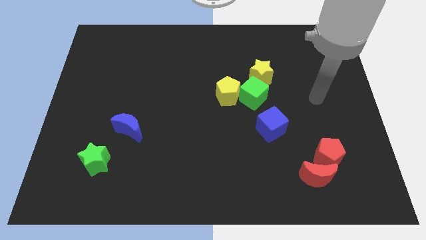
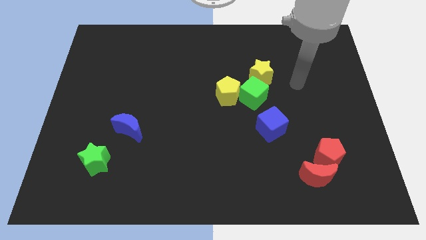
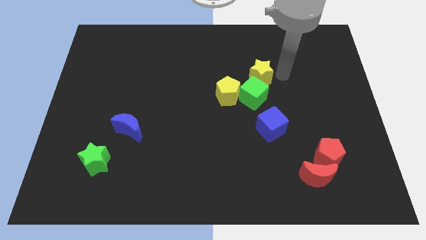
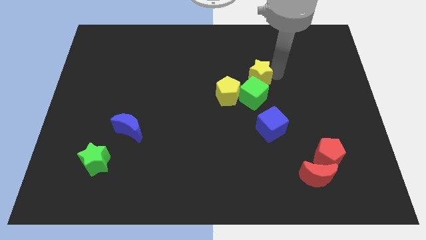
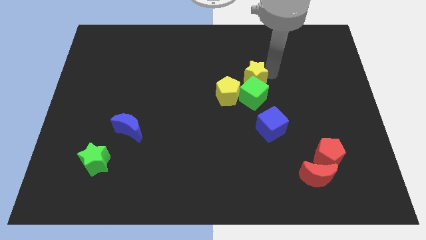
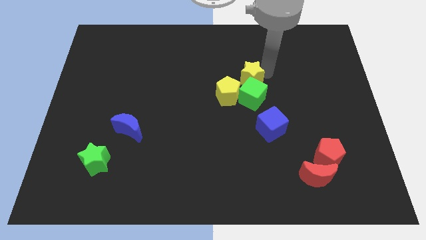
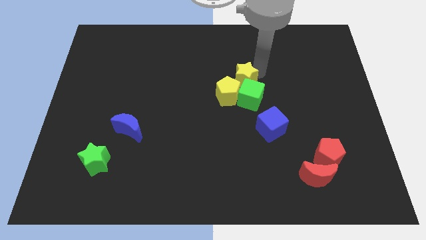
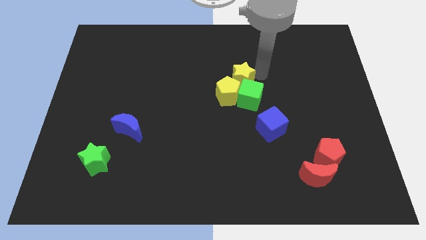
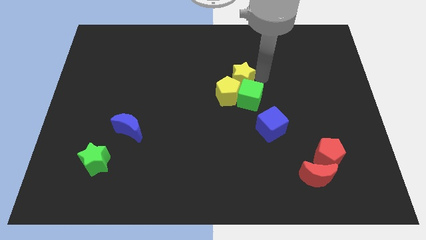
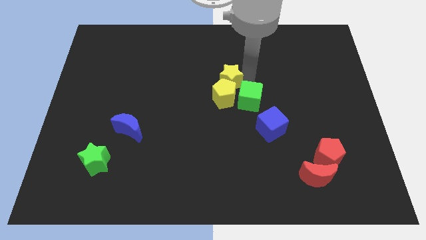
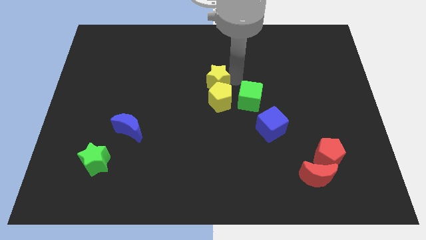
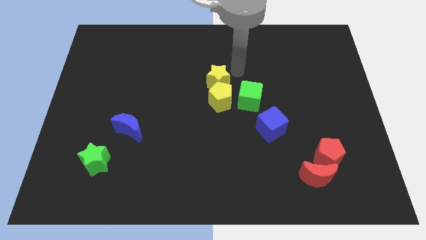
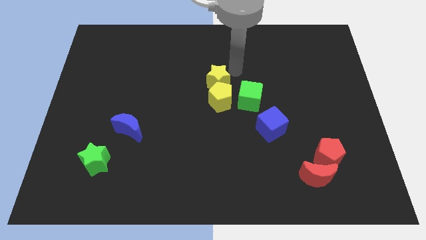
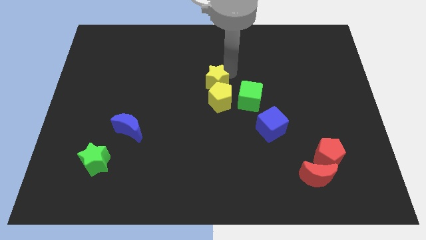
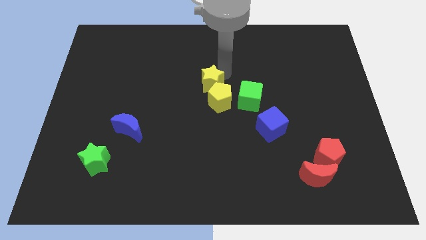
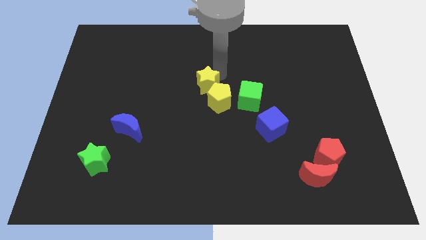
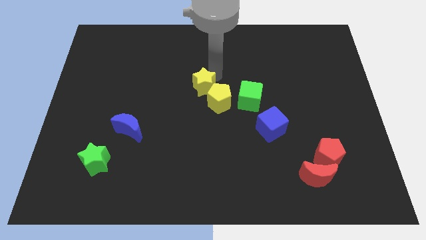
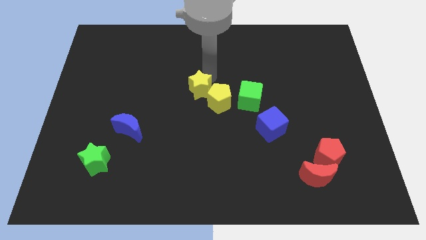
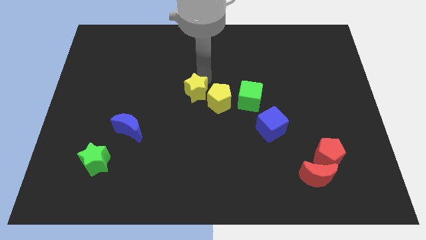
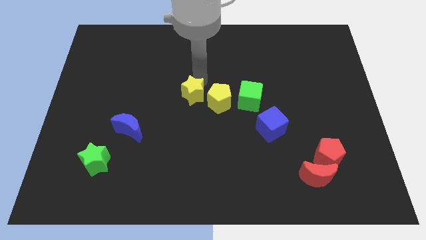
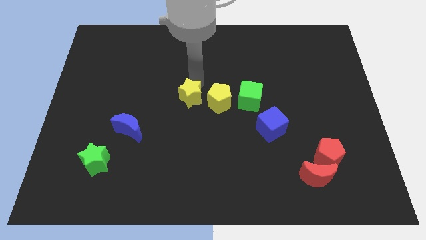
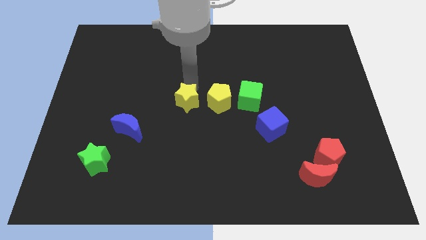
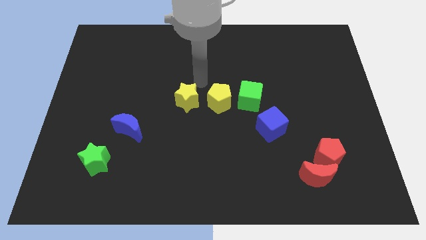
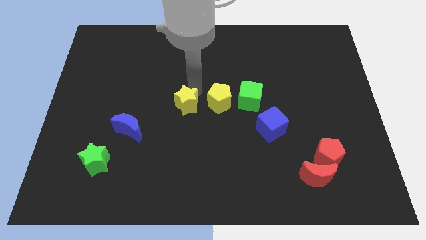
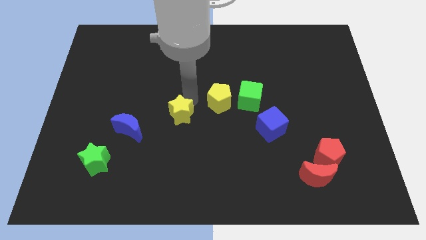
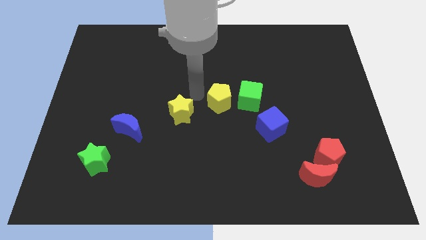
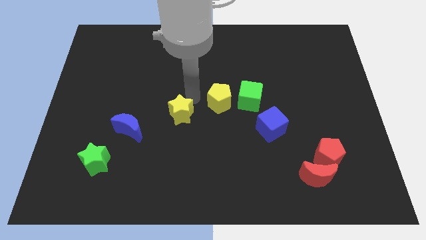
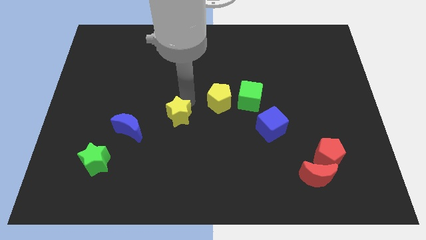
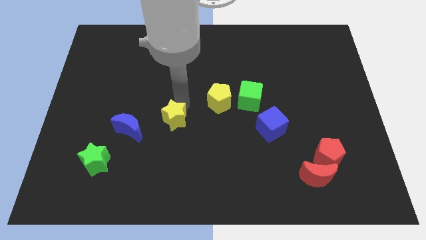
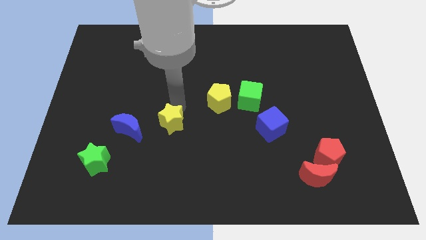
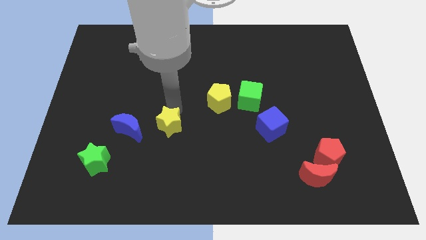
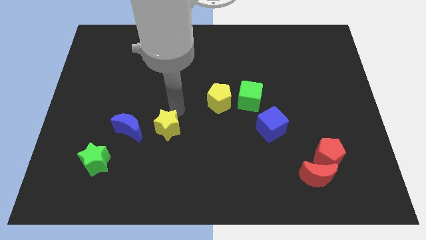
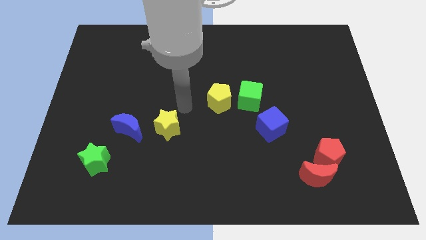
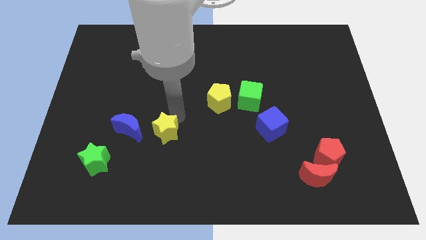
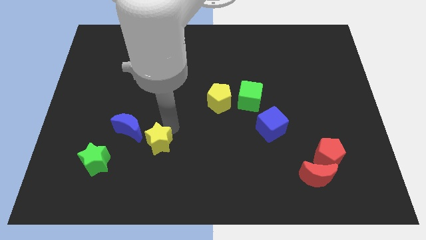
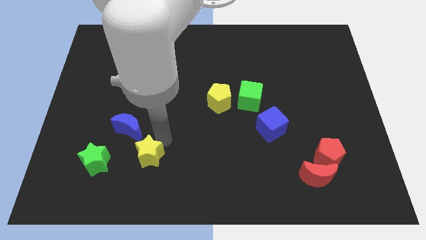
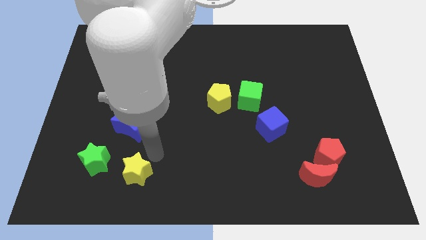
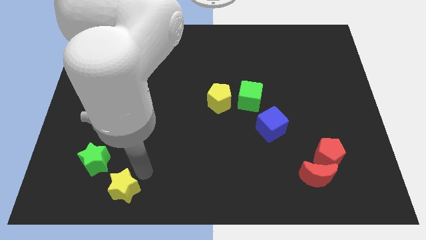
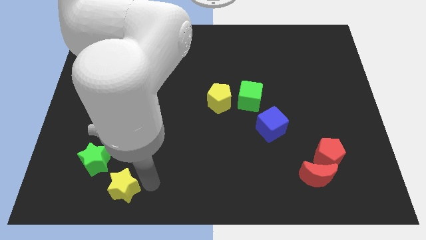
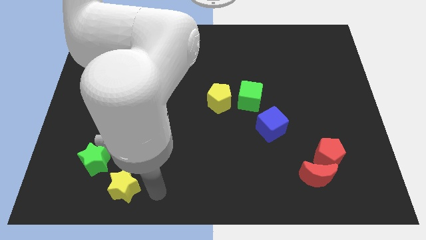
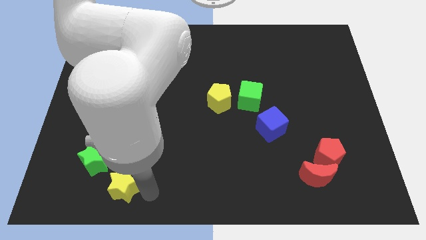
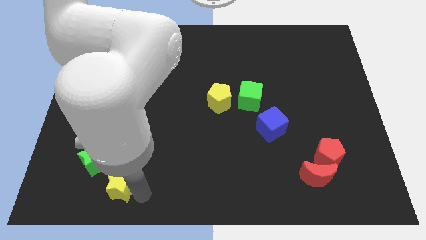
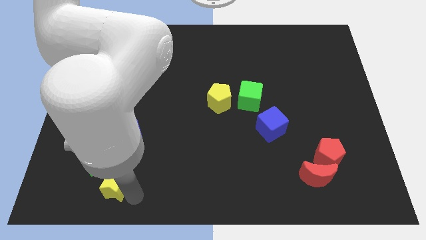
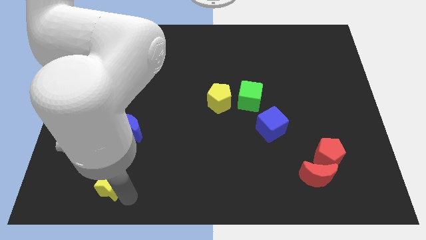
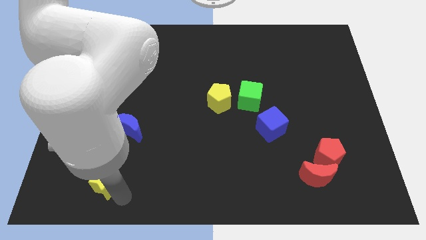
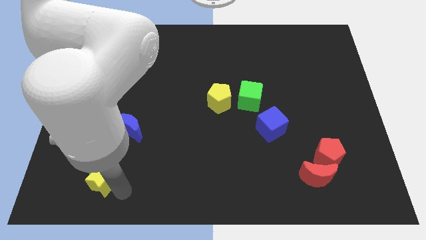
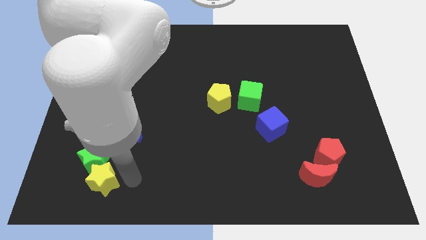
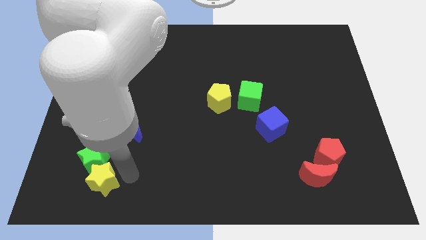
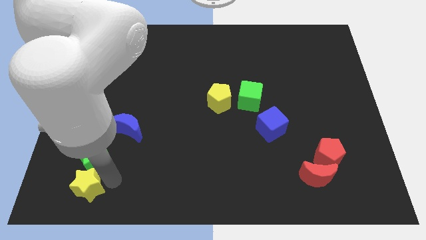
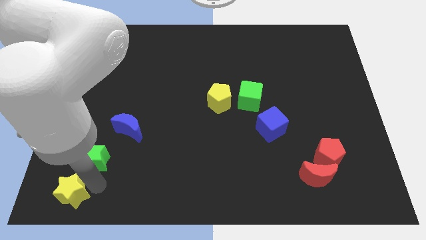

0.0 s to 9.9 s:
slide the yellow star to the bottom left

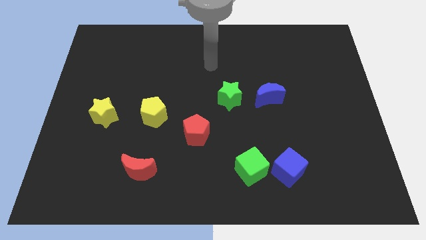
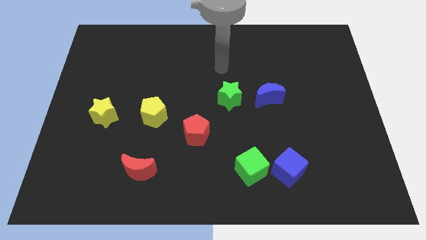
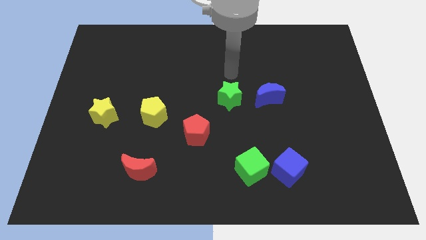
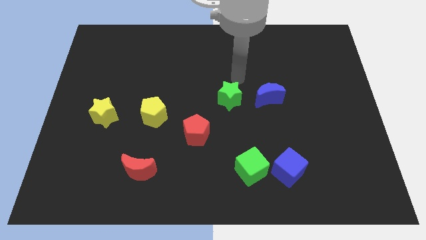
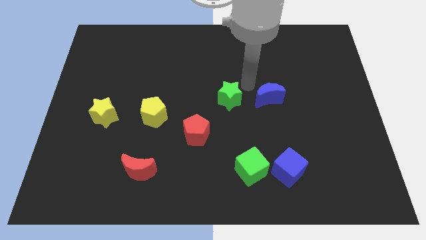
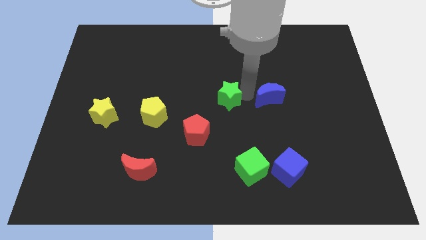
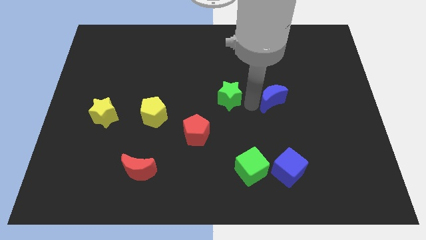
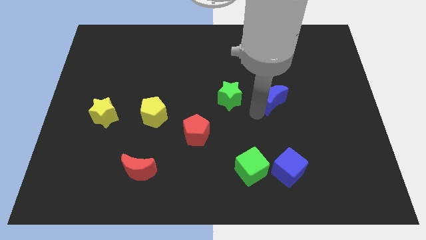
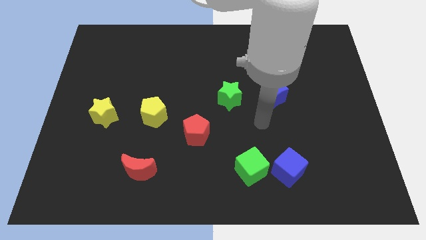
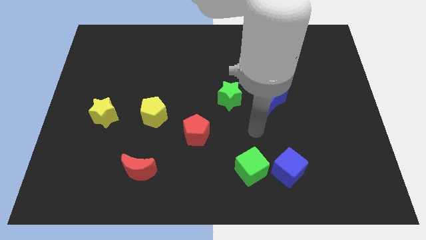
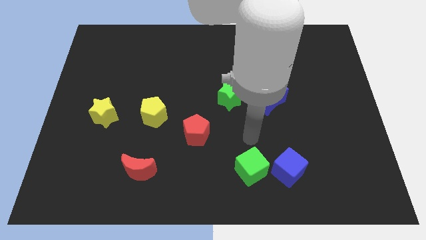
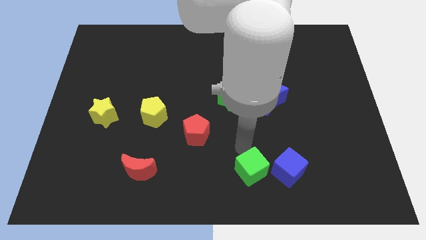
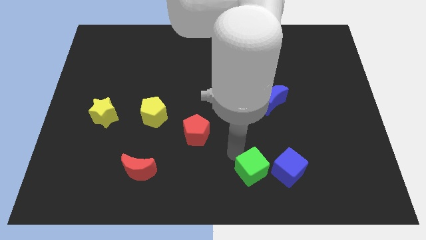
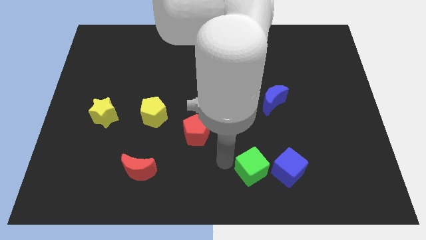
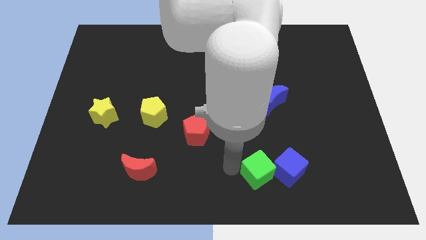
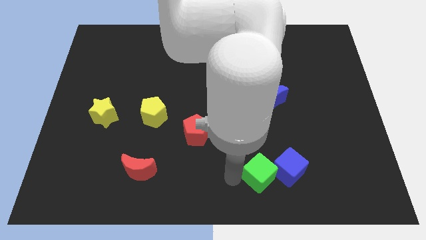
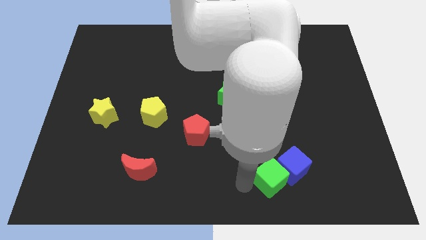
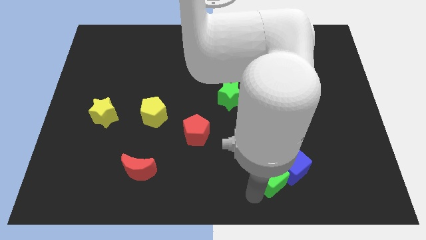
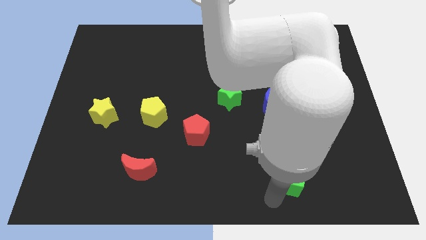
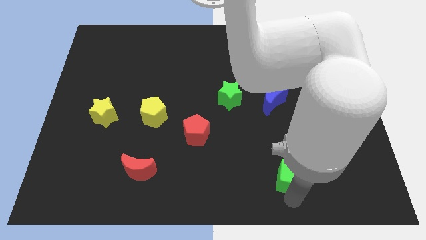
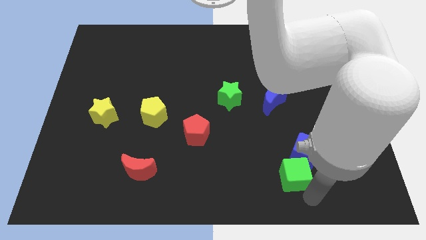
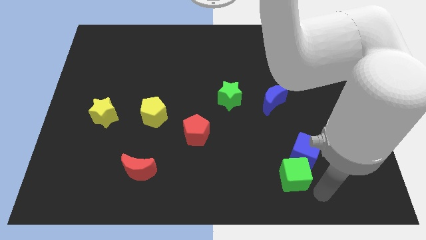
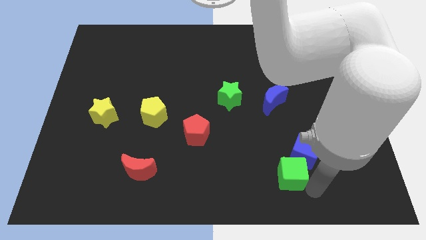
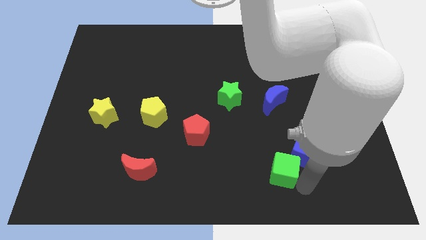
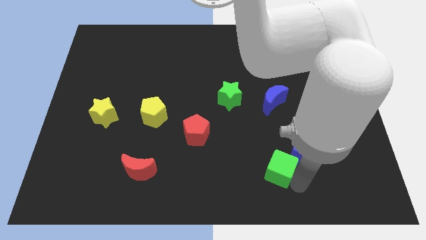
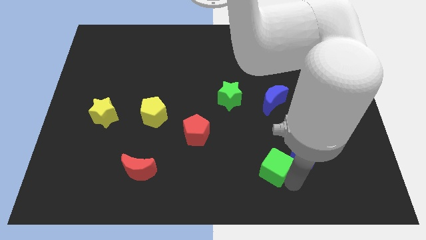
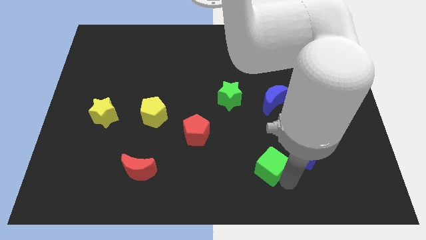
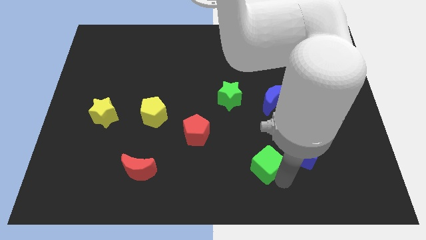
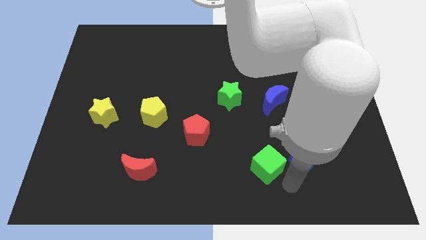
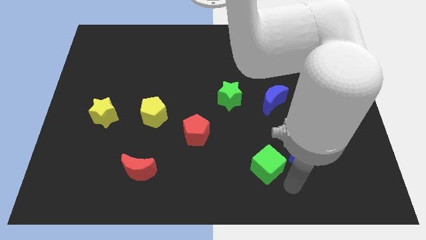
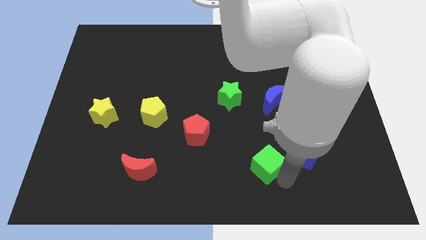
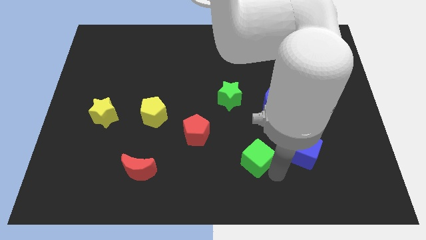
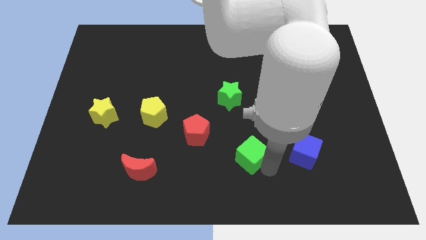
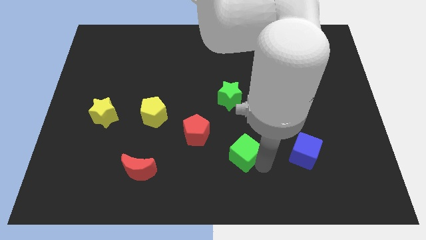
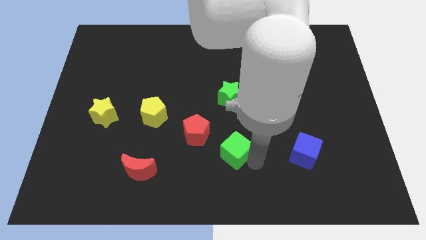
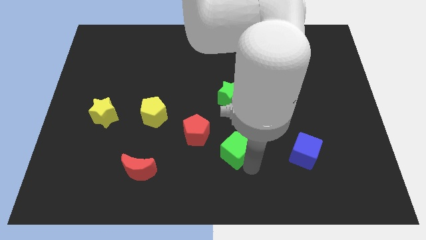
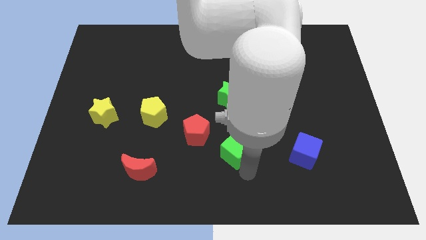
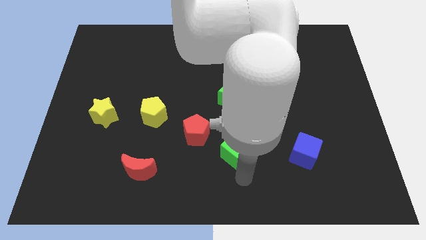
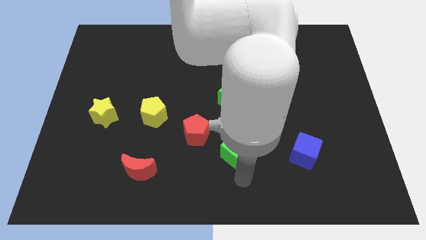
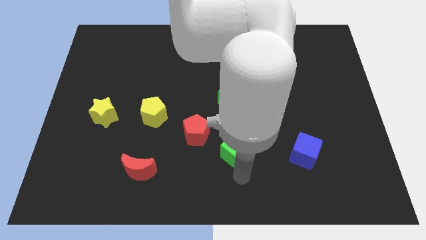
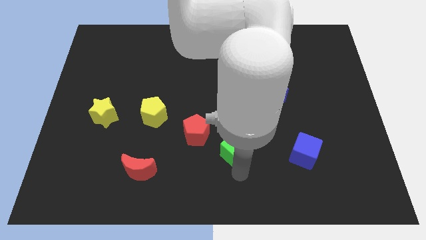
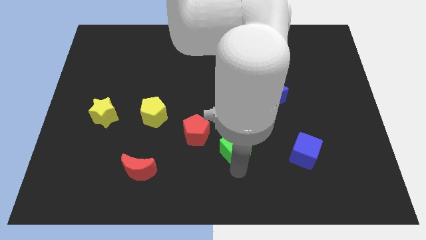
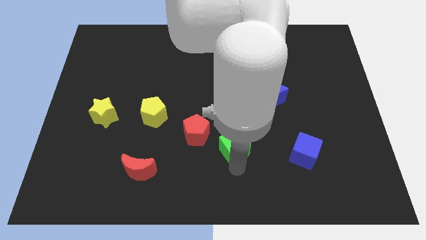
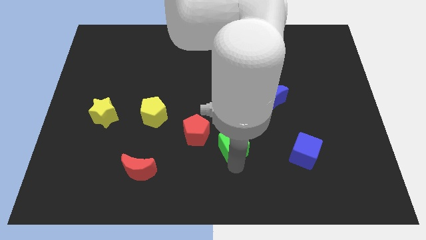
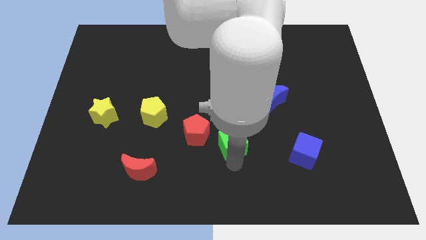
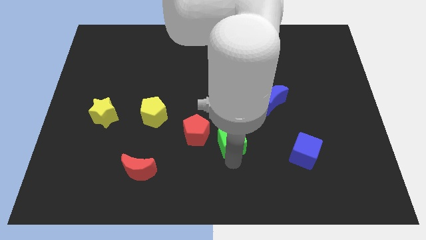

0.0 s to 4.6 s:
put the green cube to the center of the board
